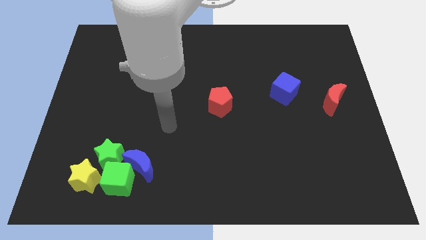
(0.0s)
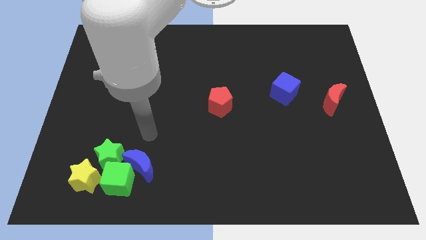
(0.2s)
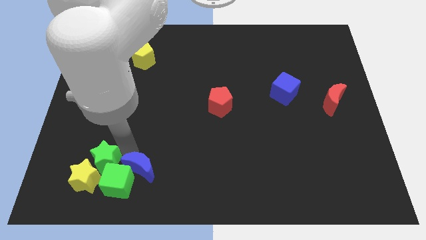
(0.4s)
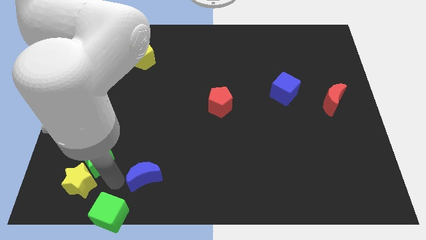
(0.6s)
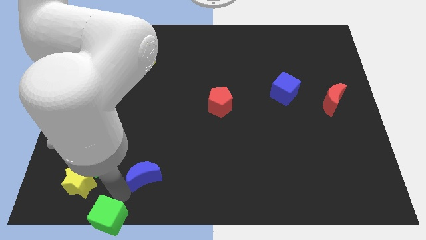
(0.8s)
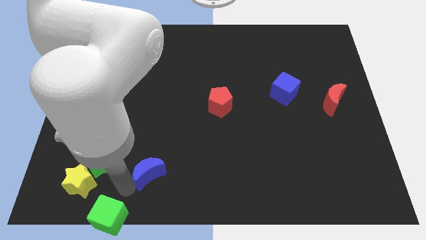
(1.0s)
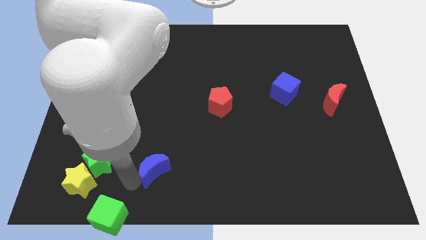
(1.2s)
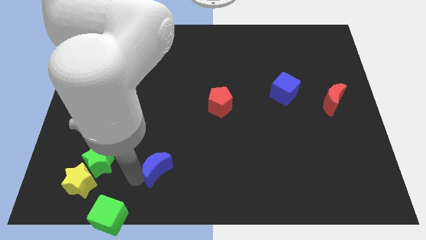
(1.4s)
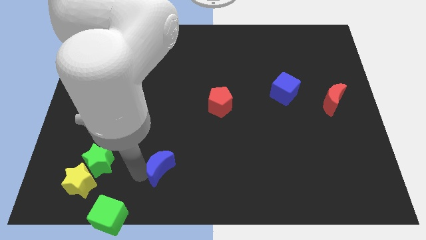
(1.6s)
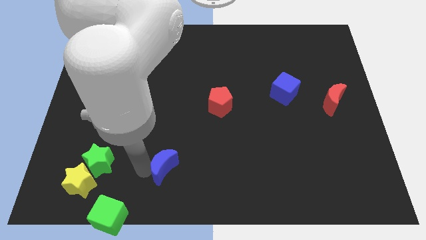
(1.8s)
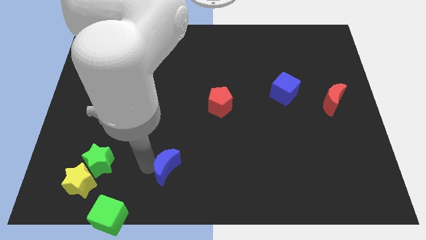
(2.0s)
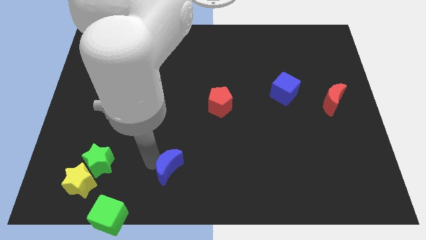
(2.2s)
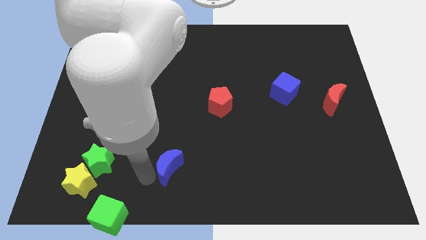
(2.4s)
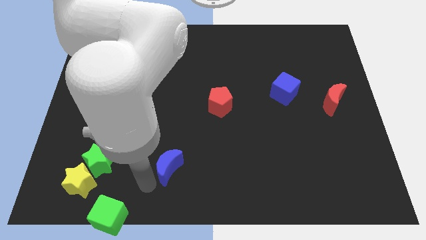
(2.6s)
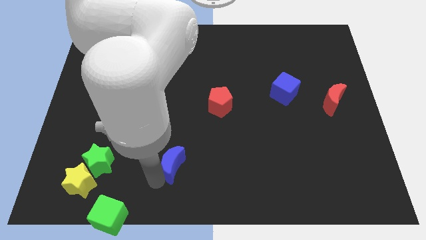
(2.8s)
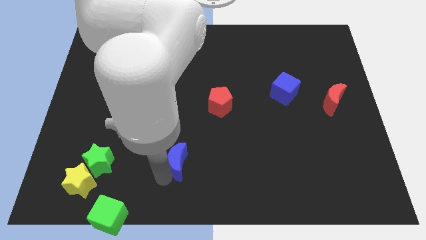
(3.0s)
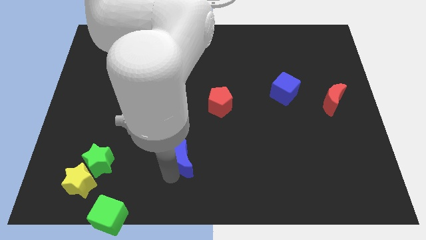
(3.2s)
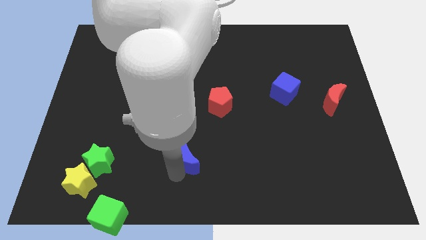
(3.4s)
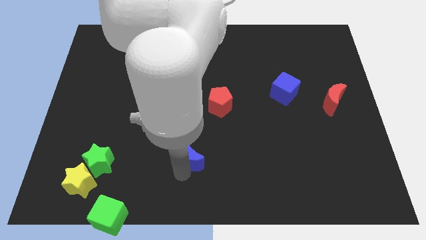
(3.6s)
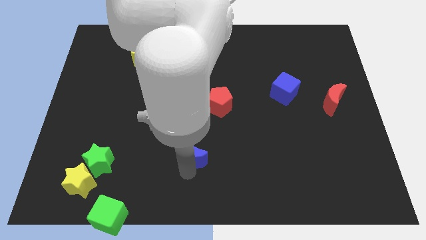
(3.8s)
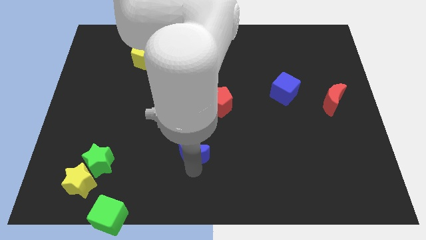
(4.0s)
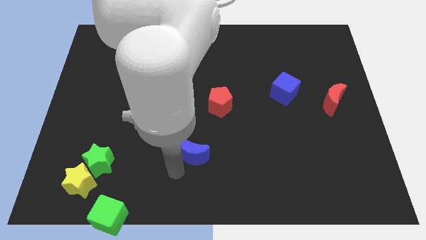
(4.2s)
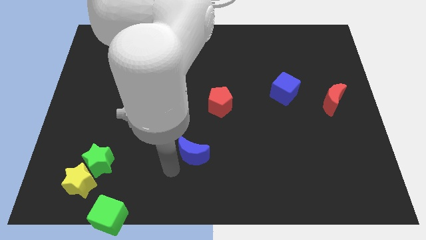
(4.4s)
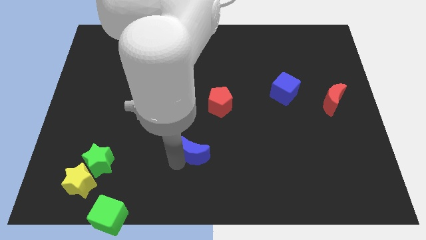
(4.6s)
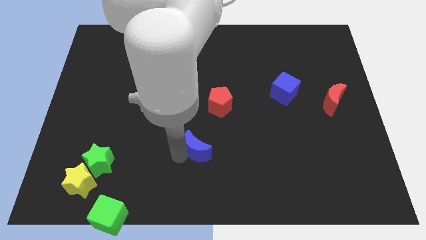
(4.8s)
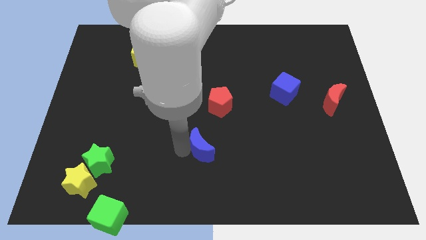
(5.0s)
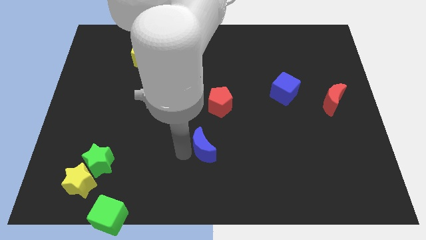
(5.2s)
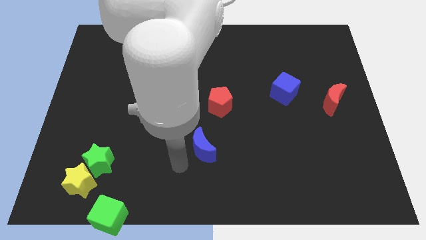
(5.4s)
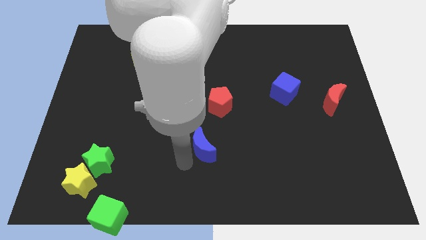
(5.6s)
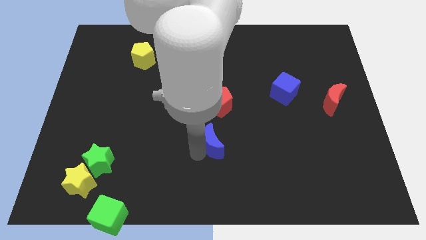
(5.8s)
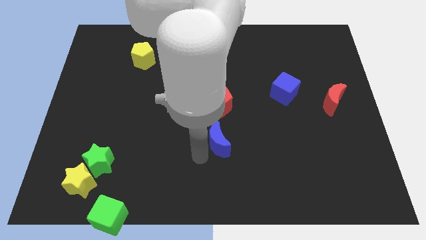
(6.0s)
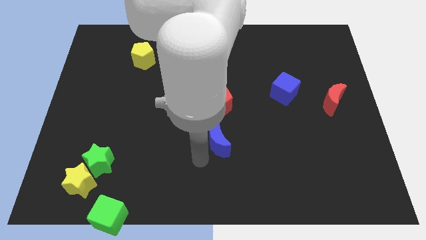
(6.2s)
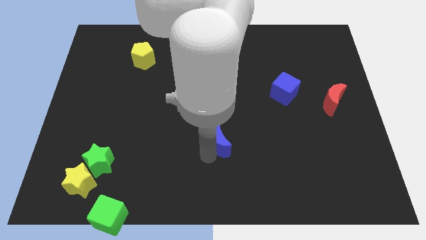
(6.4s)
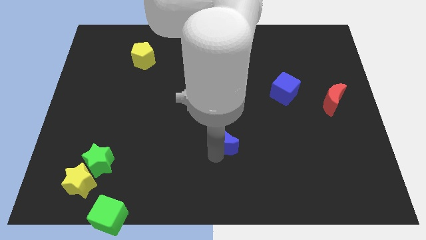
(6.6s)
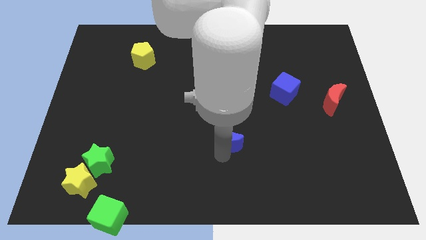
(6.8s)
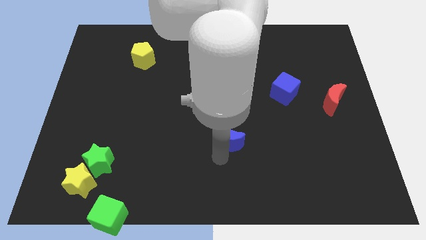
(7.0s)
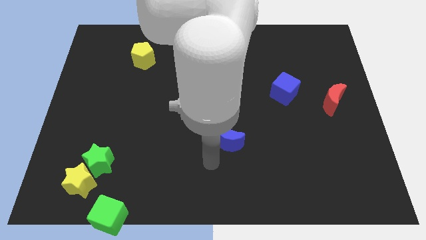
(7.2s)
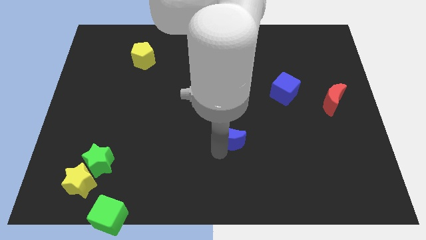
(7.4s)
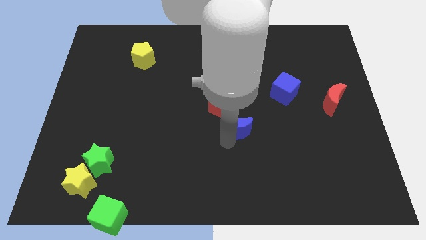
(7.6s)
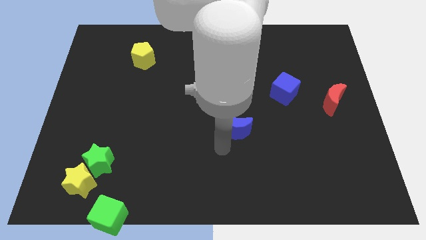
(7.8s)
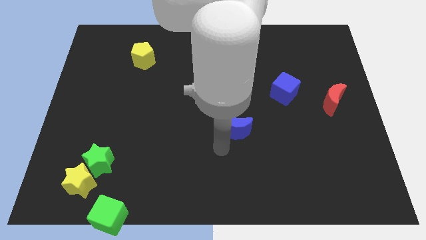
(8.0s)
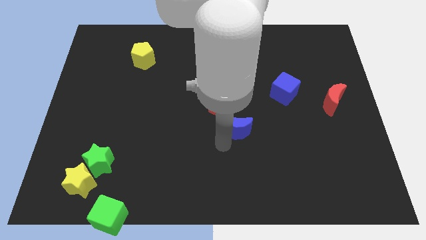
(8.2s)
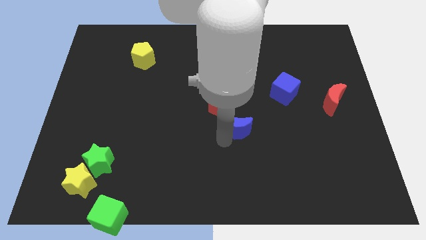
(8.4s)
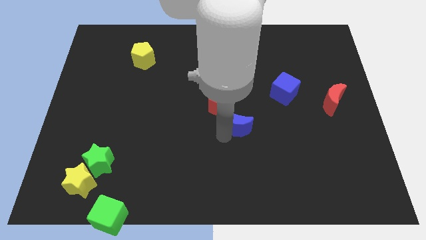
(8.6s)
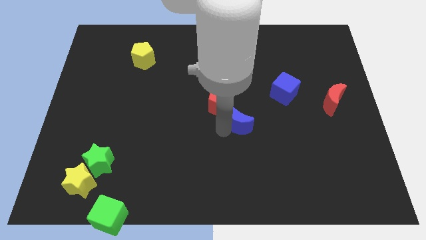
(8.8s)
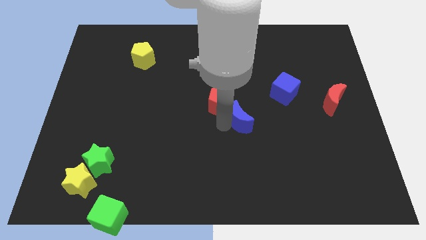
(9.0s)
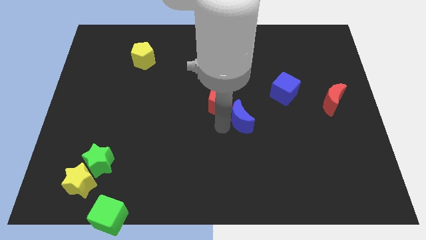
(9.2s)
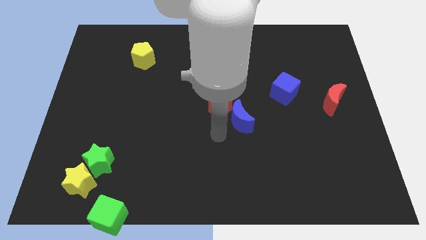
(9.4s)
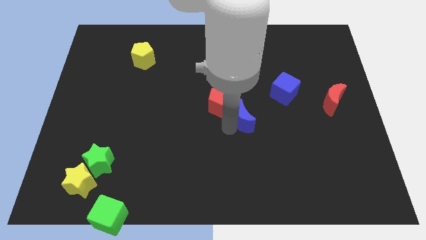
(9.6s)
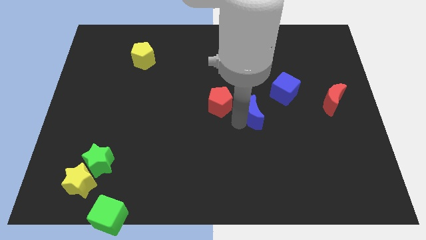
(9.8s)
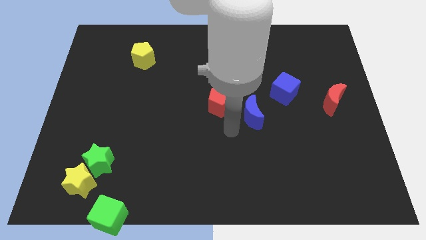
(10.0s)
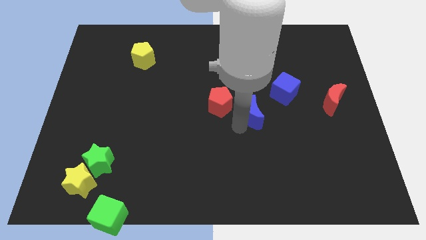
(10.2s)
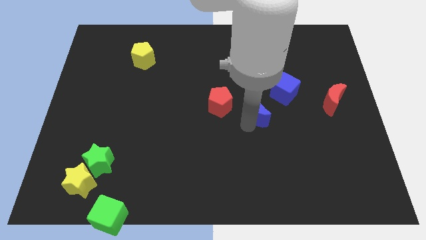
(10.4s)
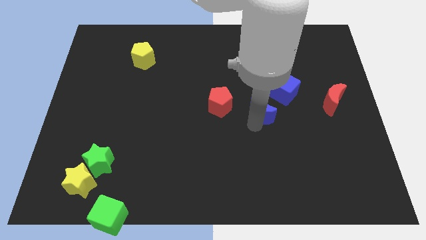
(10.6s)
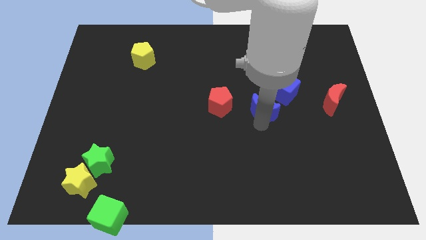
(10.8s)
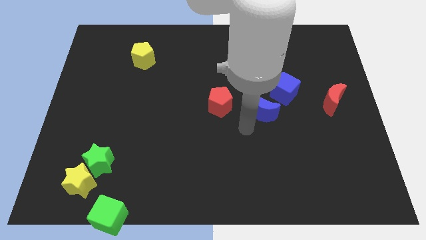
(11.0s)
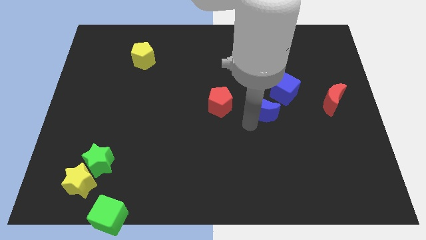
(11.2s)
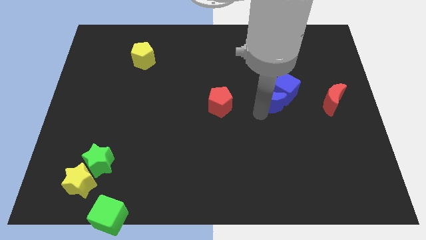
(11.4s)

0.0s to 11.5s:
slide the blue moon close to the blue cube

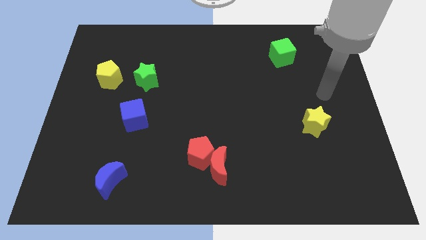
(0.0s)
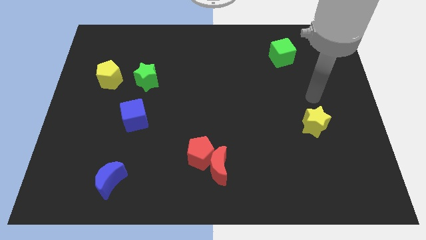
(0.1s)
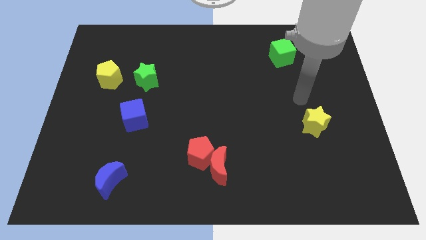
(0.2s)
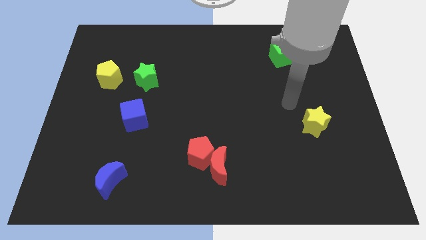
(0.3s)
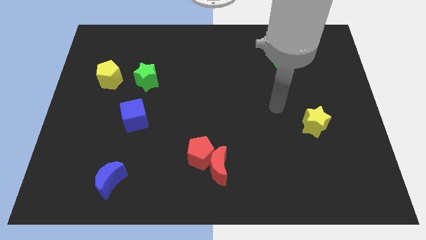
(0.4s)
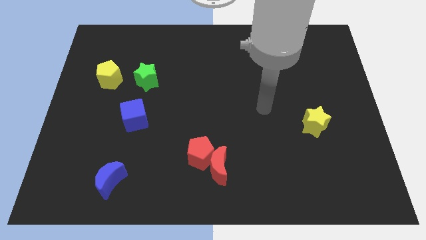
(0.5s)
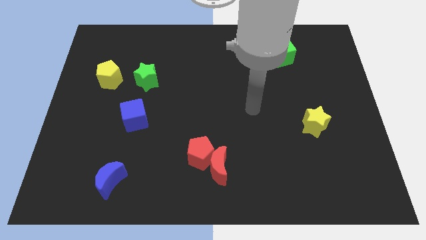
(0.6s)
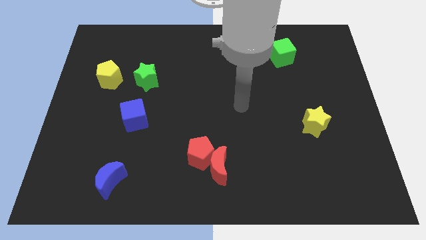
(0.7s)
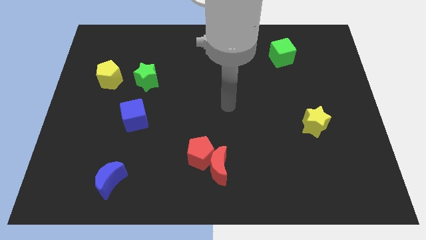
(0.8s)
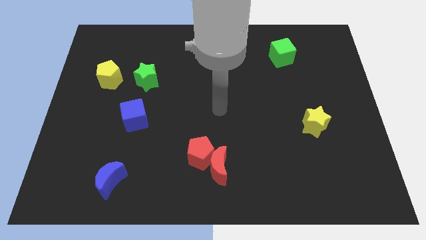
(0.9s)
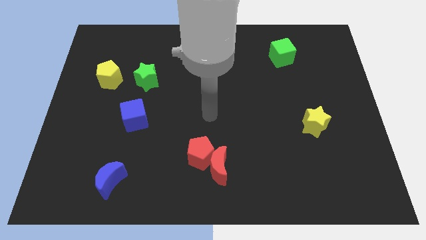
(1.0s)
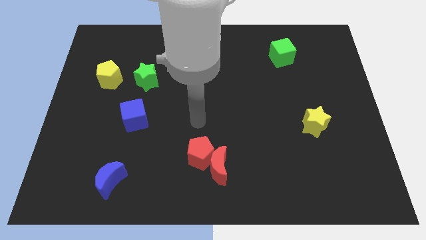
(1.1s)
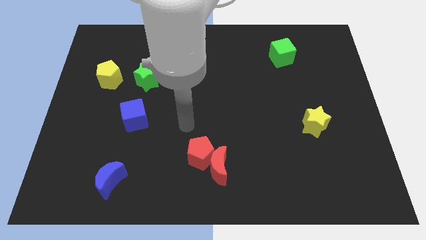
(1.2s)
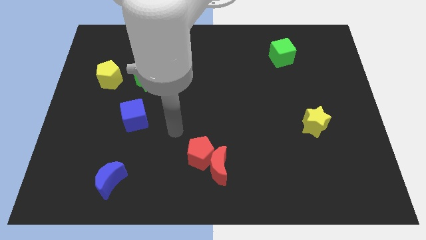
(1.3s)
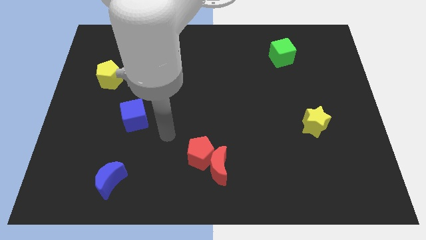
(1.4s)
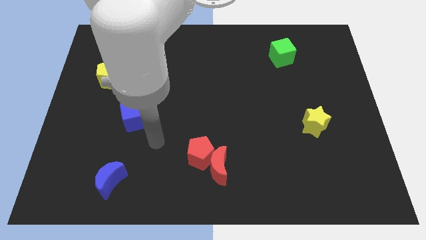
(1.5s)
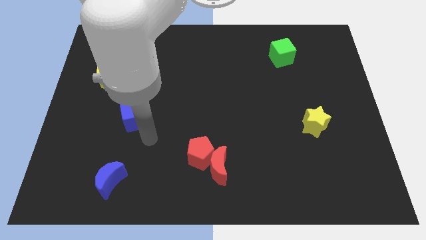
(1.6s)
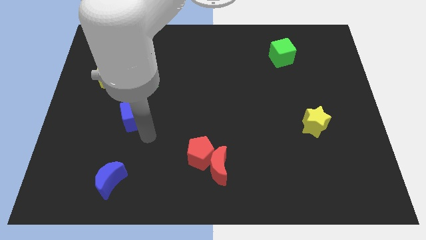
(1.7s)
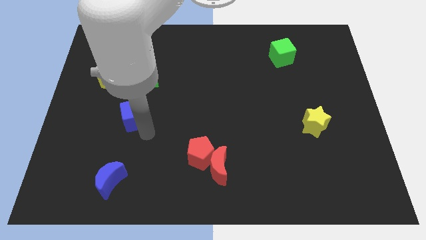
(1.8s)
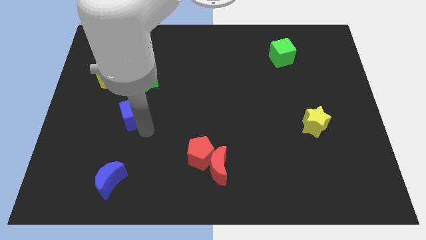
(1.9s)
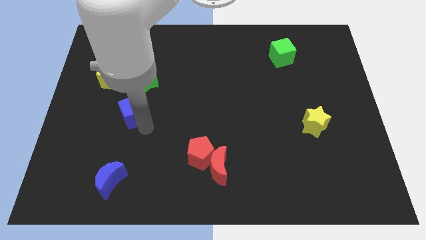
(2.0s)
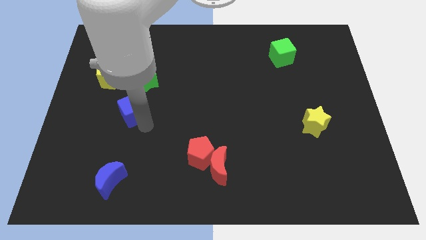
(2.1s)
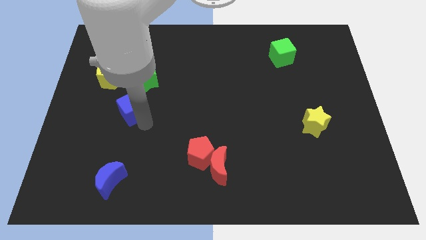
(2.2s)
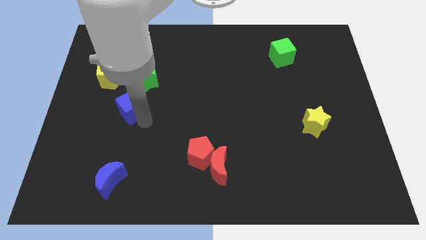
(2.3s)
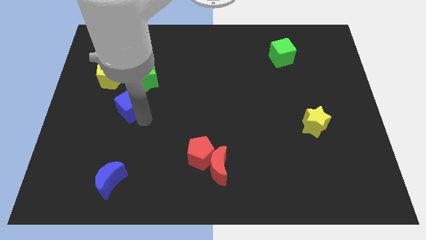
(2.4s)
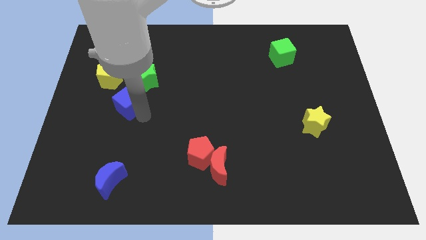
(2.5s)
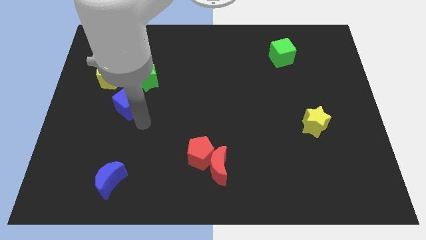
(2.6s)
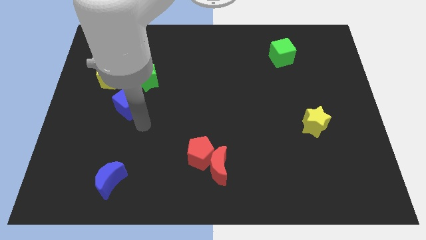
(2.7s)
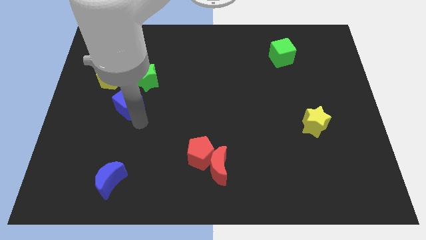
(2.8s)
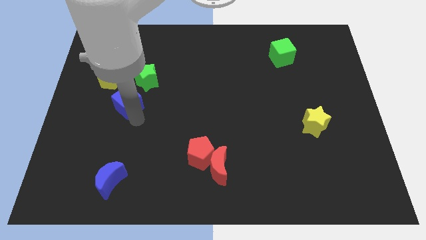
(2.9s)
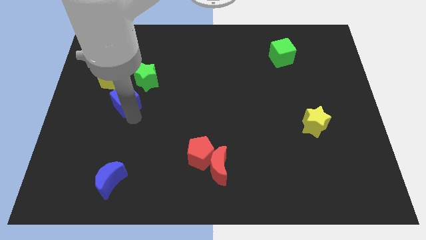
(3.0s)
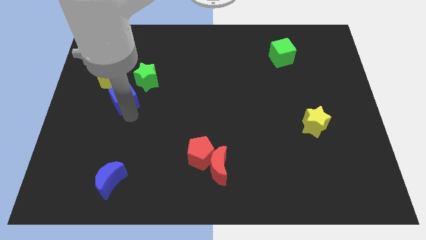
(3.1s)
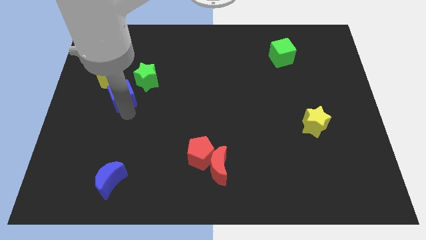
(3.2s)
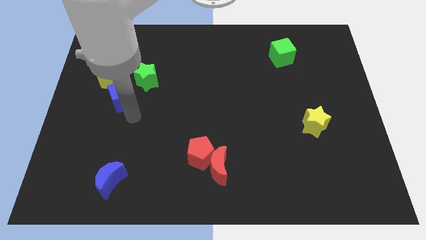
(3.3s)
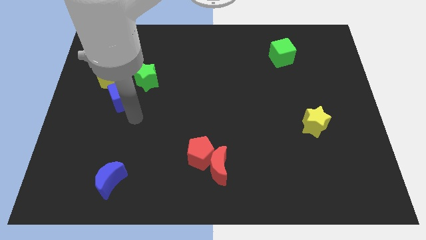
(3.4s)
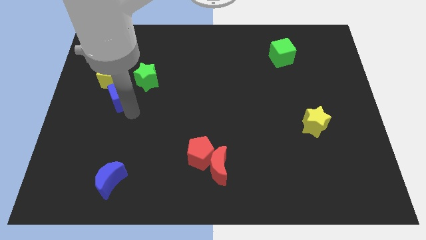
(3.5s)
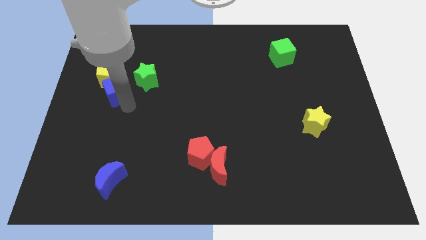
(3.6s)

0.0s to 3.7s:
slide the blue cube close to the yellow pentagon
